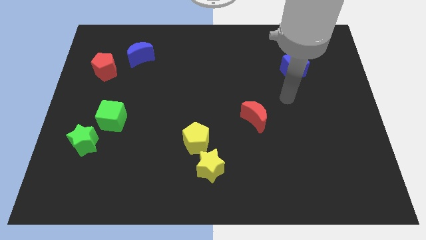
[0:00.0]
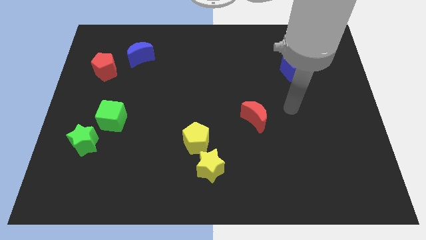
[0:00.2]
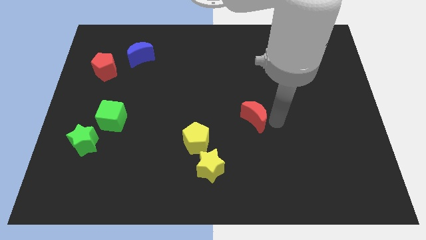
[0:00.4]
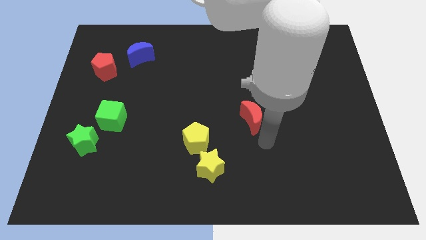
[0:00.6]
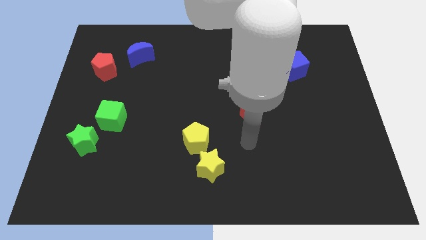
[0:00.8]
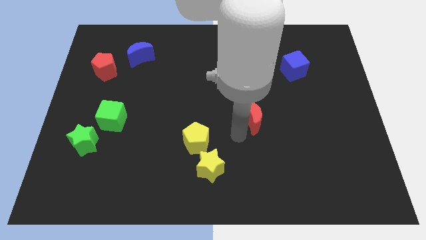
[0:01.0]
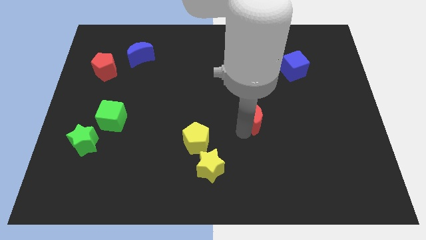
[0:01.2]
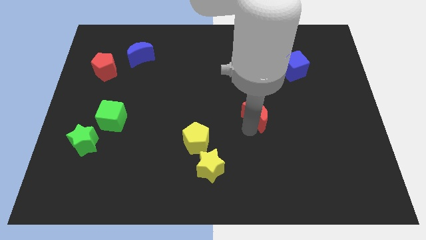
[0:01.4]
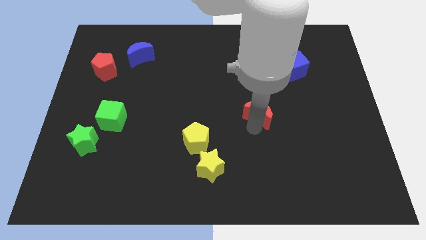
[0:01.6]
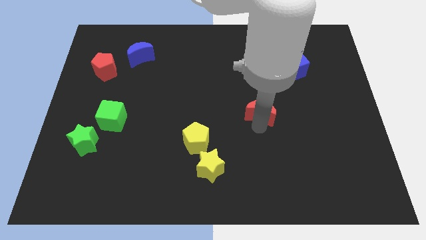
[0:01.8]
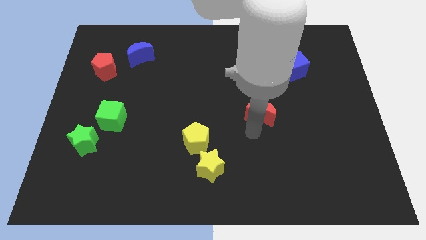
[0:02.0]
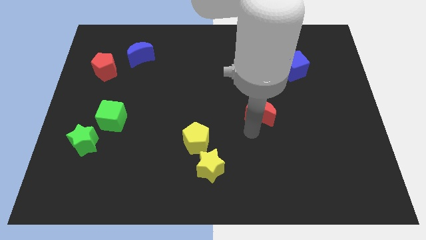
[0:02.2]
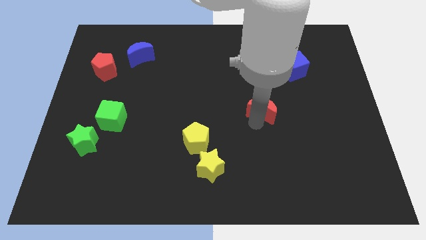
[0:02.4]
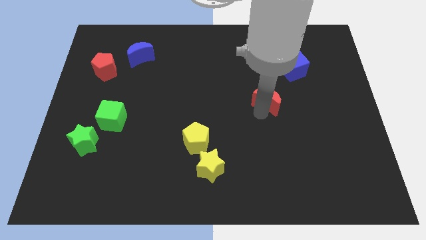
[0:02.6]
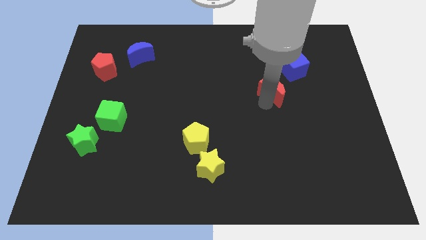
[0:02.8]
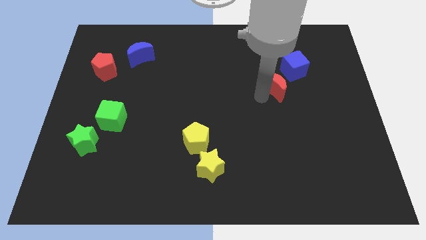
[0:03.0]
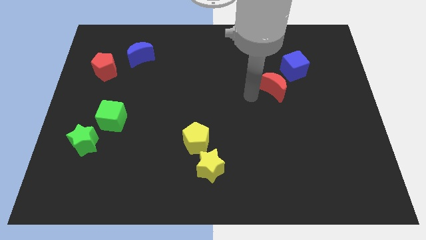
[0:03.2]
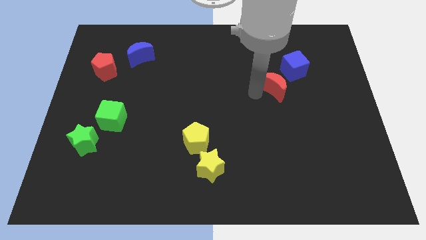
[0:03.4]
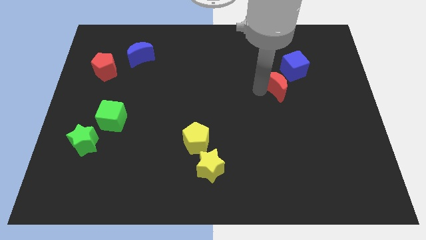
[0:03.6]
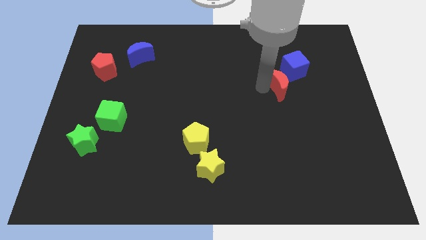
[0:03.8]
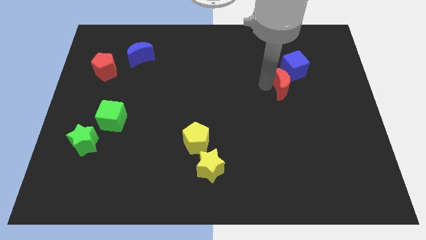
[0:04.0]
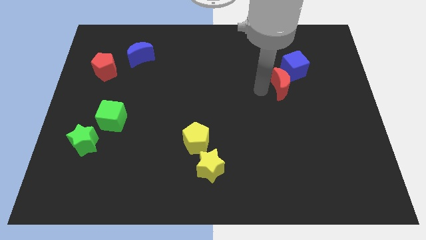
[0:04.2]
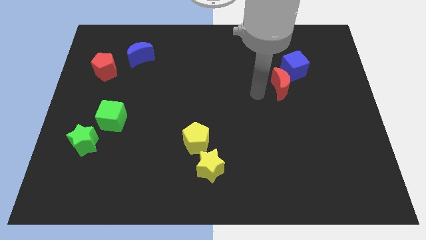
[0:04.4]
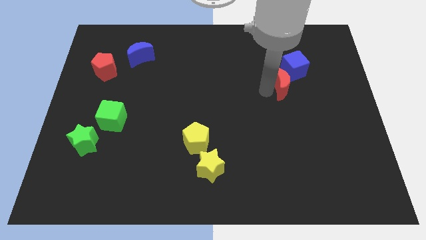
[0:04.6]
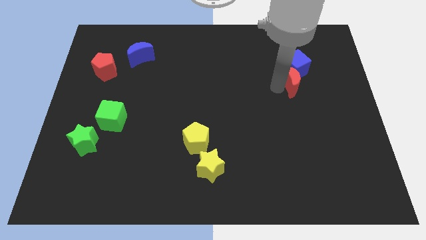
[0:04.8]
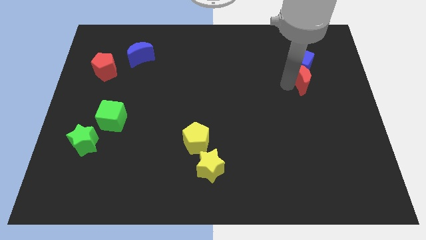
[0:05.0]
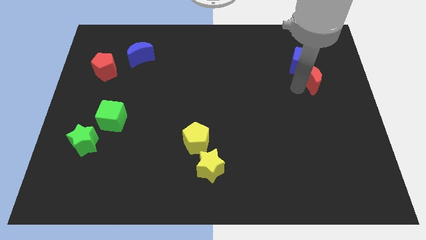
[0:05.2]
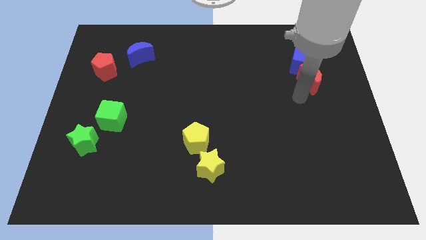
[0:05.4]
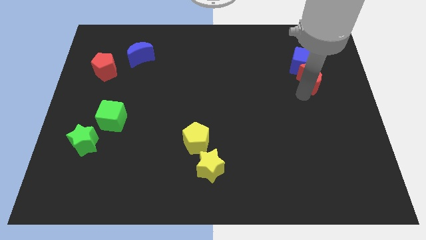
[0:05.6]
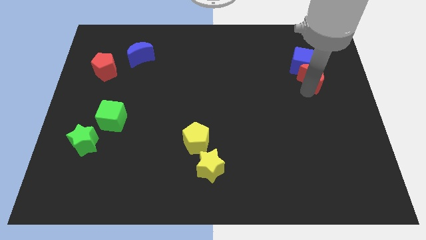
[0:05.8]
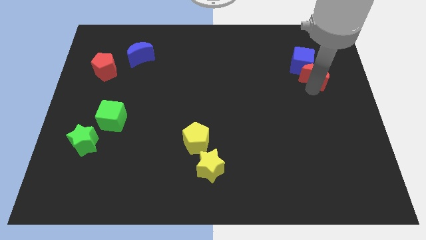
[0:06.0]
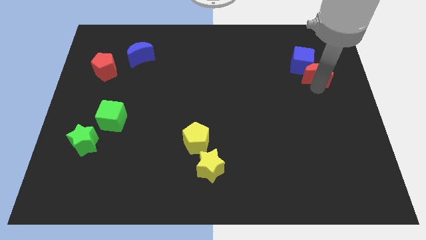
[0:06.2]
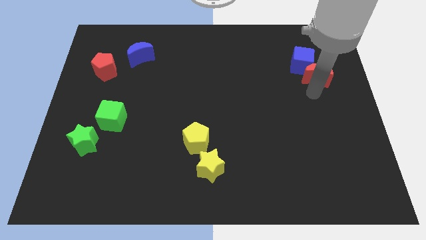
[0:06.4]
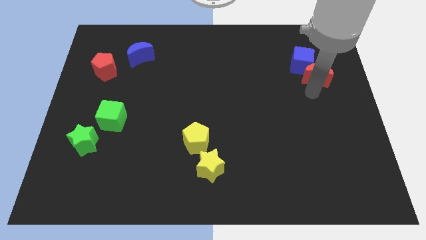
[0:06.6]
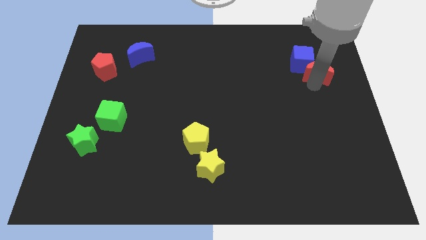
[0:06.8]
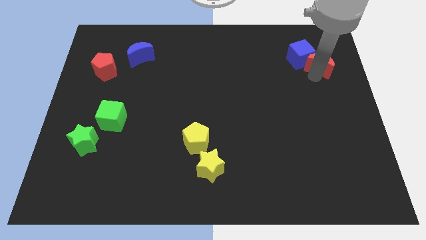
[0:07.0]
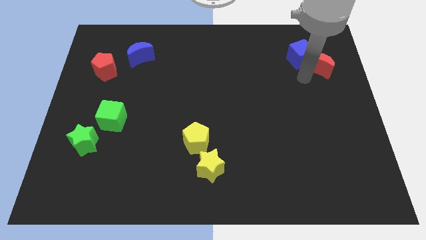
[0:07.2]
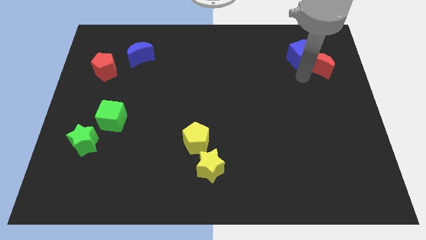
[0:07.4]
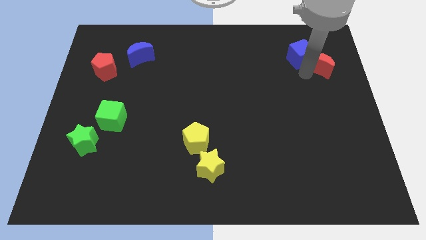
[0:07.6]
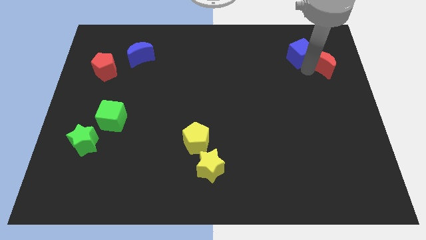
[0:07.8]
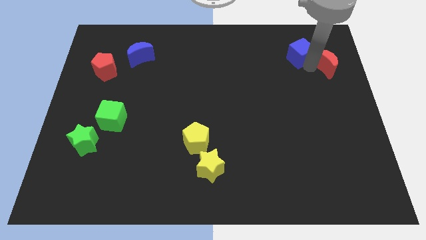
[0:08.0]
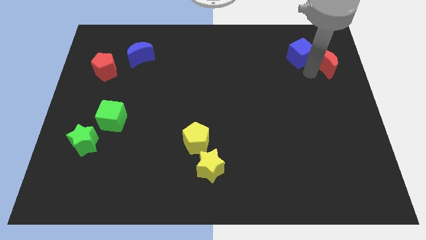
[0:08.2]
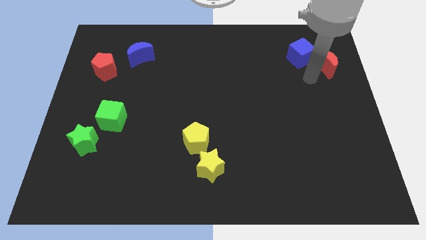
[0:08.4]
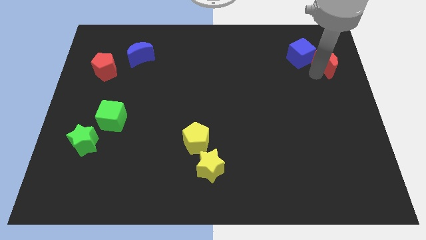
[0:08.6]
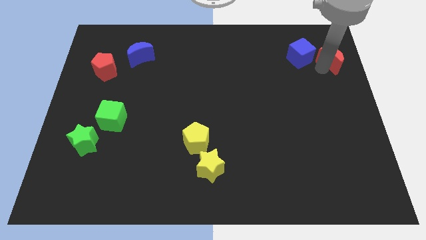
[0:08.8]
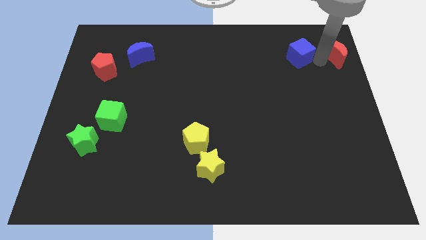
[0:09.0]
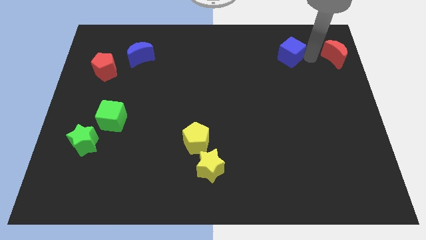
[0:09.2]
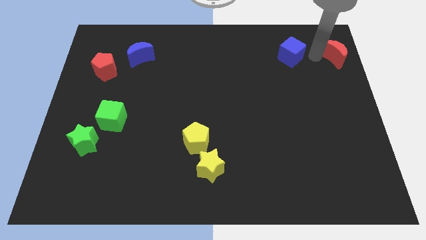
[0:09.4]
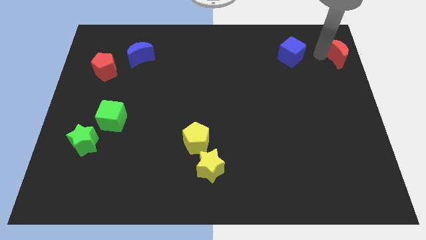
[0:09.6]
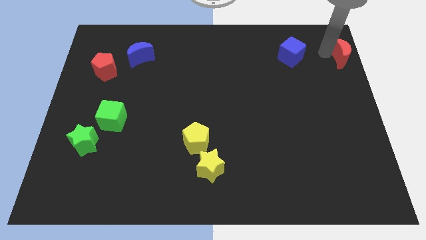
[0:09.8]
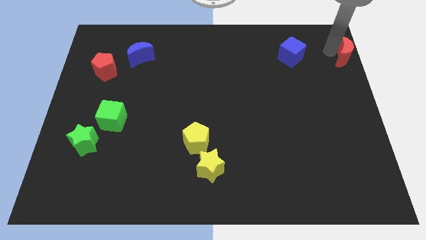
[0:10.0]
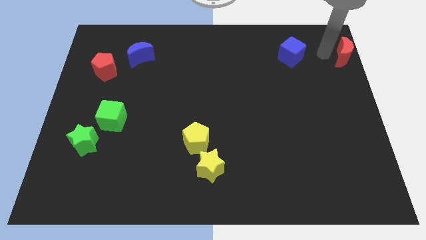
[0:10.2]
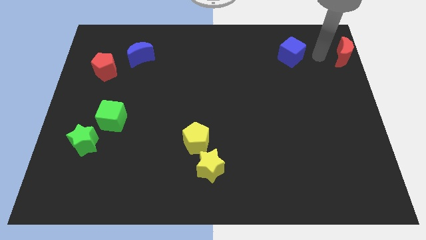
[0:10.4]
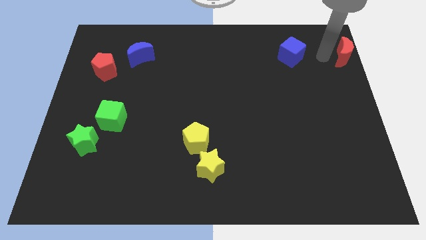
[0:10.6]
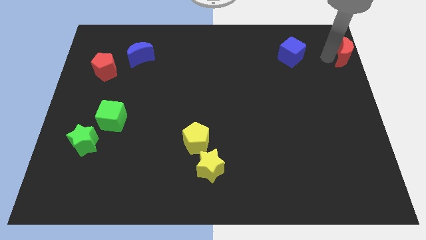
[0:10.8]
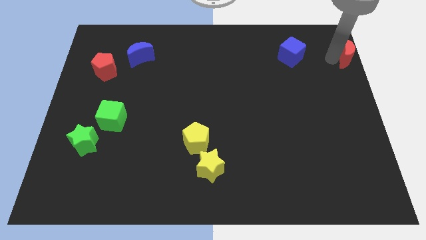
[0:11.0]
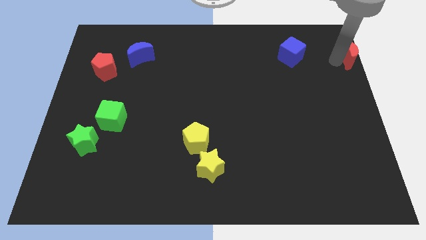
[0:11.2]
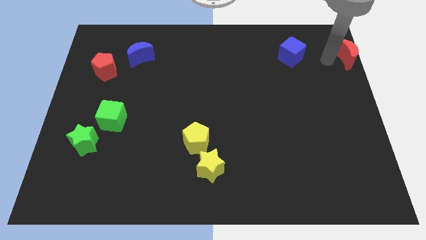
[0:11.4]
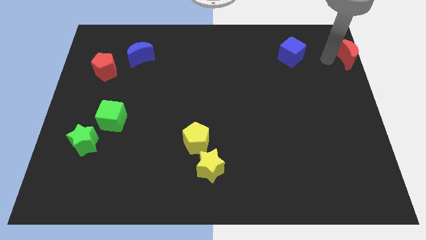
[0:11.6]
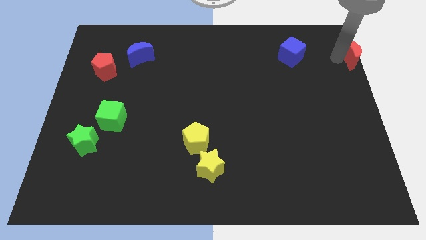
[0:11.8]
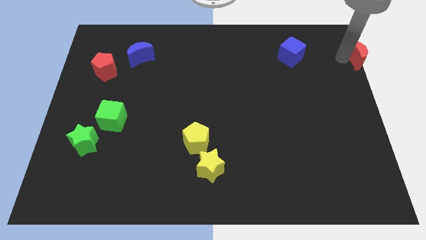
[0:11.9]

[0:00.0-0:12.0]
move the red moon to the top right corner
